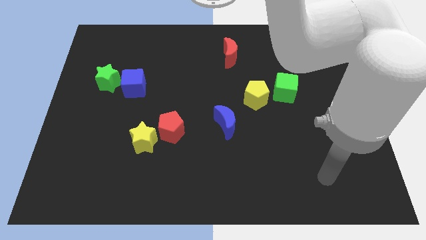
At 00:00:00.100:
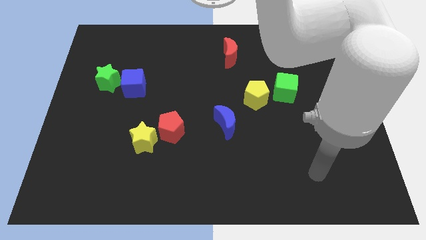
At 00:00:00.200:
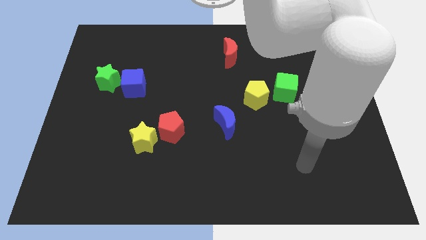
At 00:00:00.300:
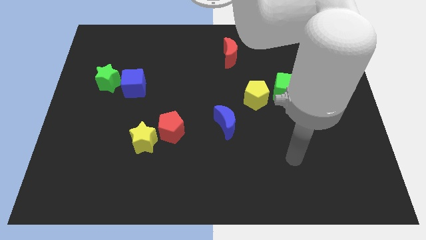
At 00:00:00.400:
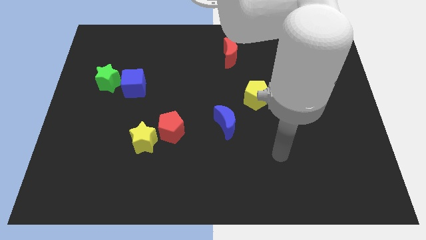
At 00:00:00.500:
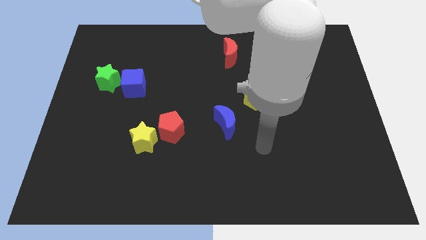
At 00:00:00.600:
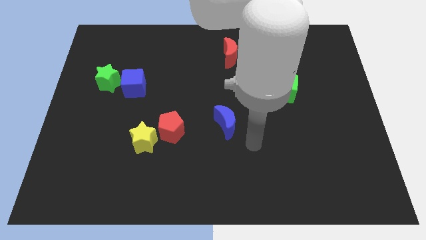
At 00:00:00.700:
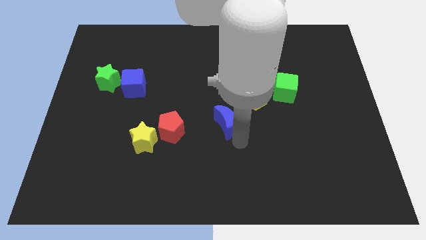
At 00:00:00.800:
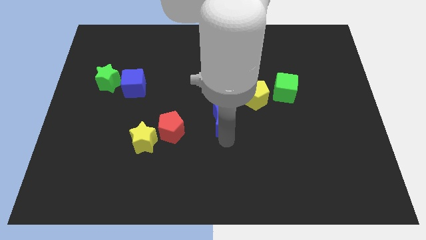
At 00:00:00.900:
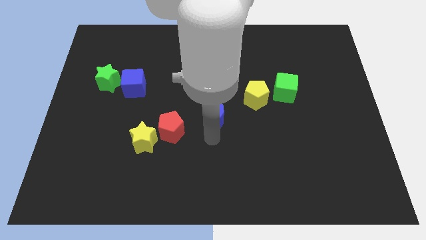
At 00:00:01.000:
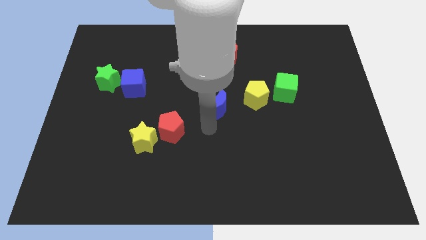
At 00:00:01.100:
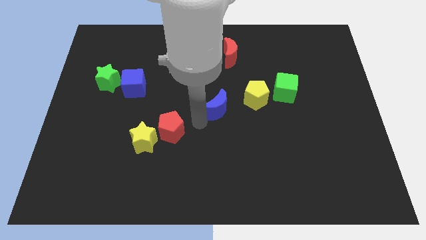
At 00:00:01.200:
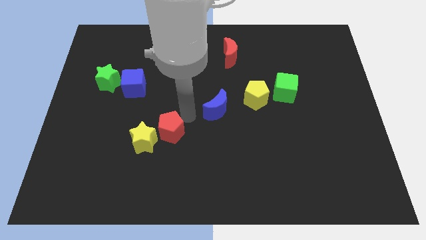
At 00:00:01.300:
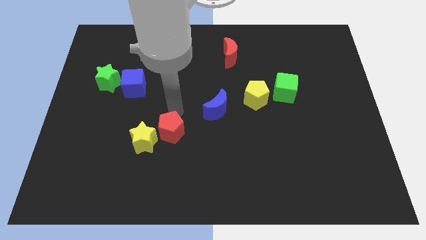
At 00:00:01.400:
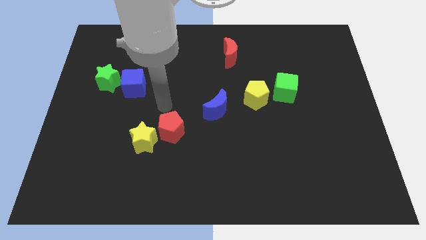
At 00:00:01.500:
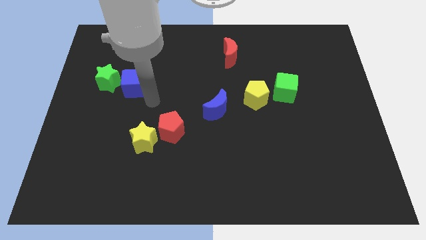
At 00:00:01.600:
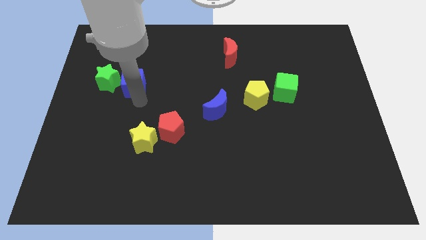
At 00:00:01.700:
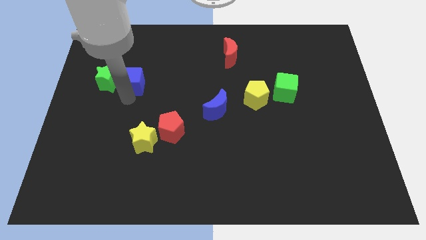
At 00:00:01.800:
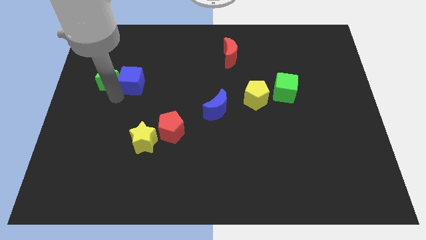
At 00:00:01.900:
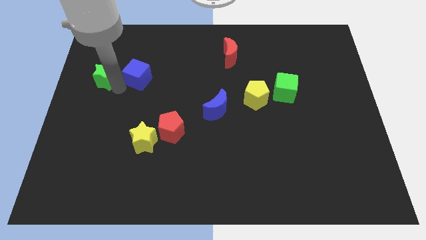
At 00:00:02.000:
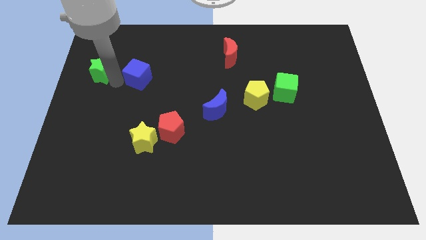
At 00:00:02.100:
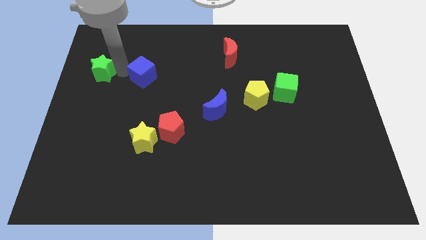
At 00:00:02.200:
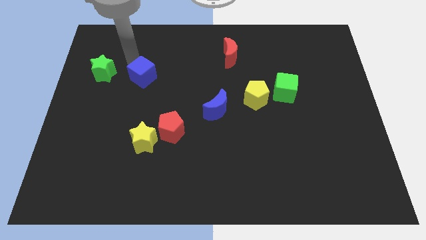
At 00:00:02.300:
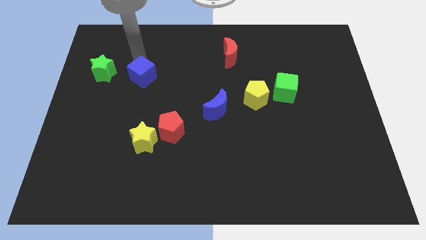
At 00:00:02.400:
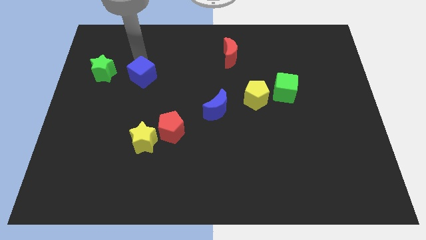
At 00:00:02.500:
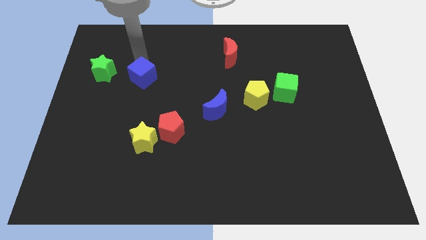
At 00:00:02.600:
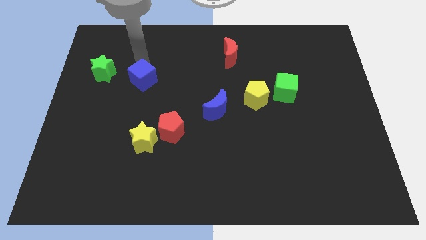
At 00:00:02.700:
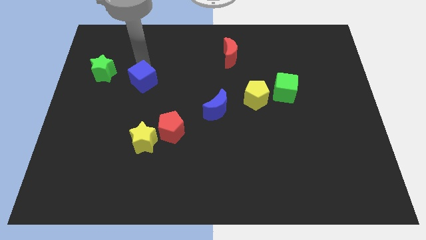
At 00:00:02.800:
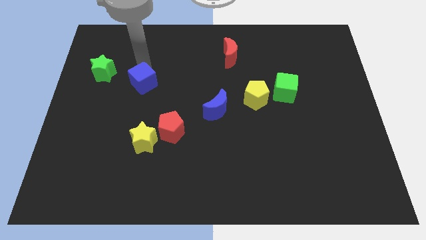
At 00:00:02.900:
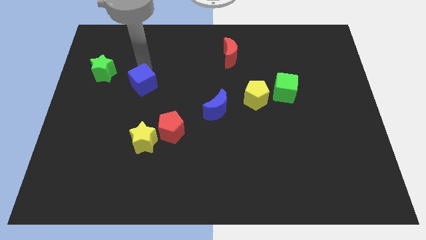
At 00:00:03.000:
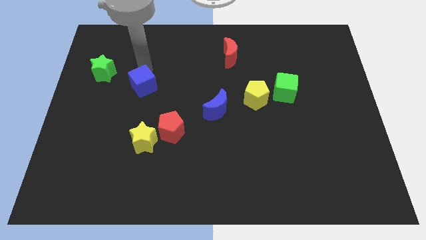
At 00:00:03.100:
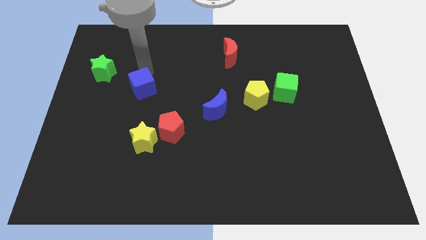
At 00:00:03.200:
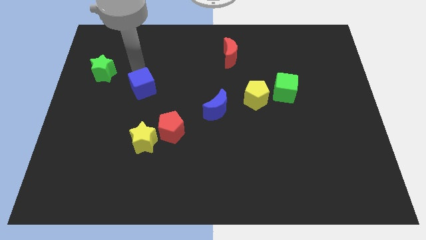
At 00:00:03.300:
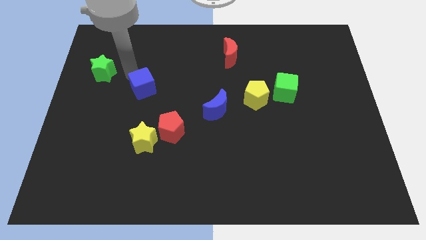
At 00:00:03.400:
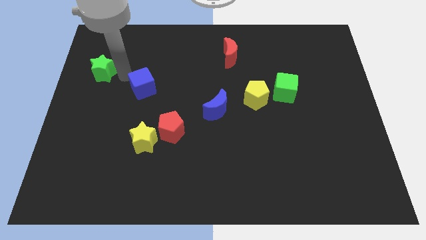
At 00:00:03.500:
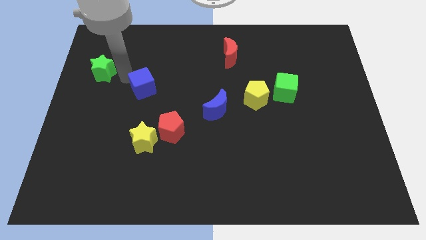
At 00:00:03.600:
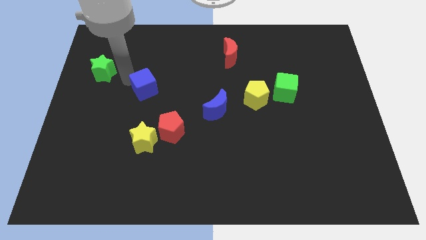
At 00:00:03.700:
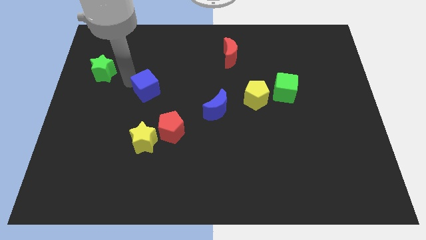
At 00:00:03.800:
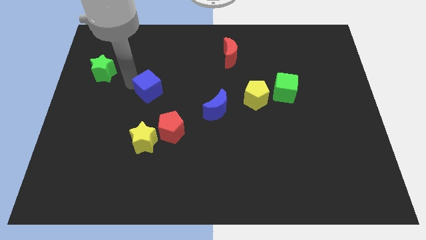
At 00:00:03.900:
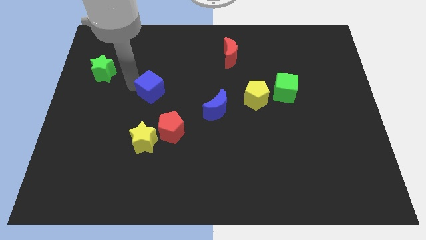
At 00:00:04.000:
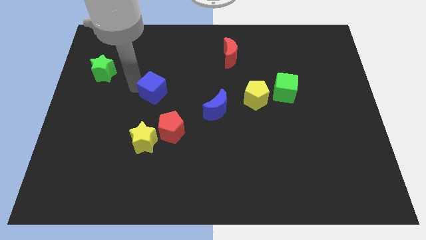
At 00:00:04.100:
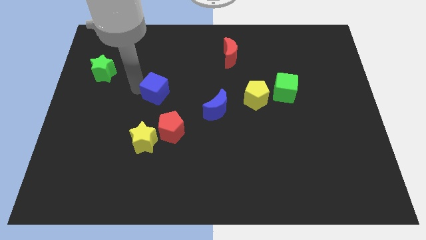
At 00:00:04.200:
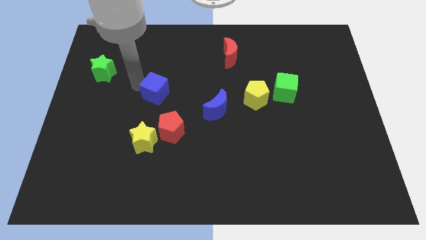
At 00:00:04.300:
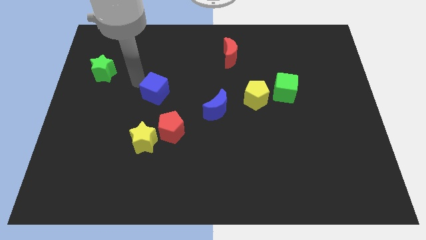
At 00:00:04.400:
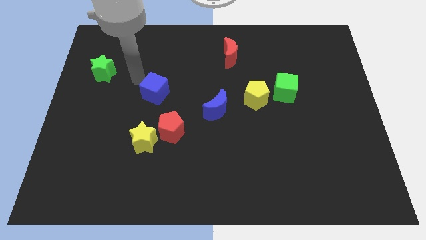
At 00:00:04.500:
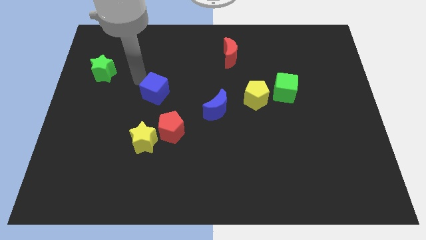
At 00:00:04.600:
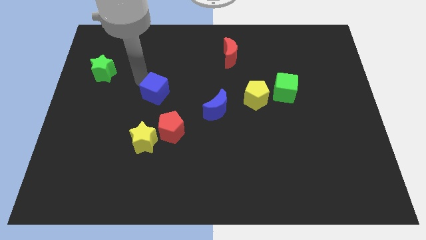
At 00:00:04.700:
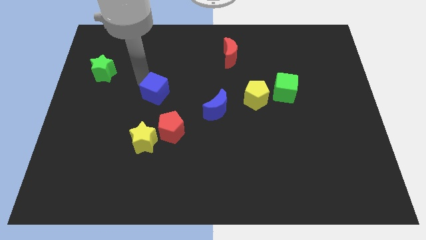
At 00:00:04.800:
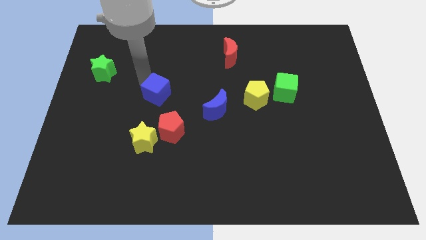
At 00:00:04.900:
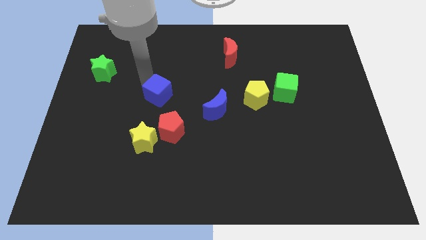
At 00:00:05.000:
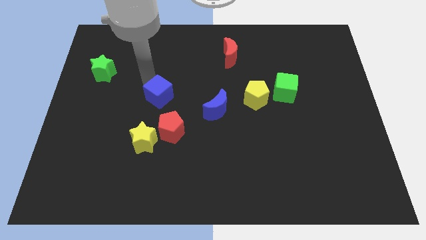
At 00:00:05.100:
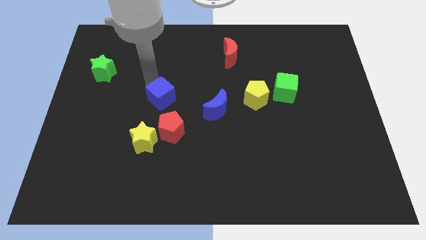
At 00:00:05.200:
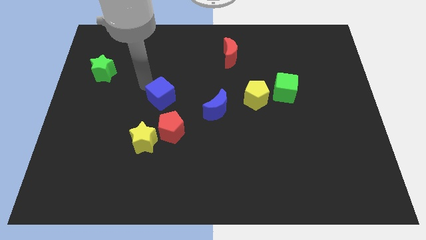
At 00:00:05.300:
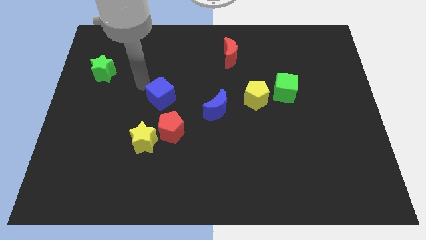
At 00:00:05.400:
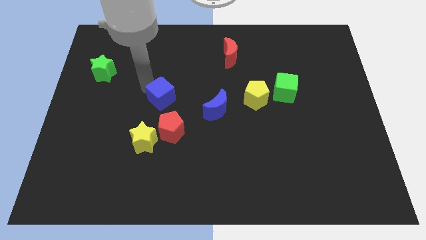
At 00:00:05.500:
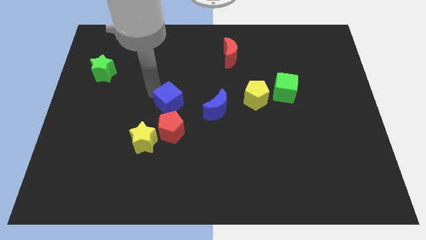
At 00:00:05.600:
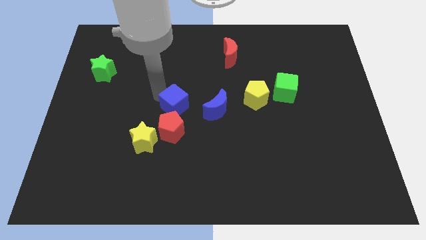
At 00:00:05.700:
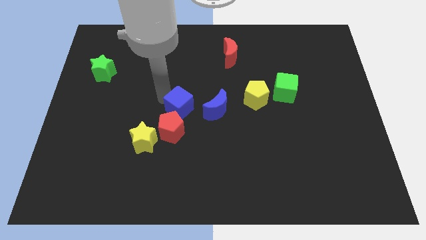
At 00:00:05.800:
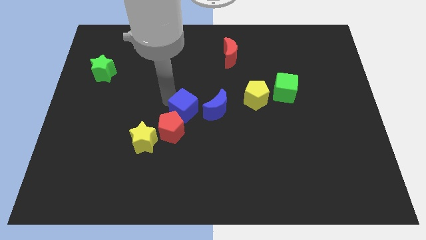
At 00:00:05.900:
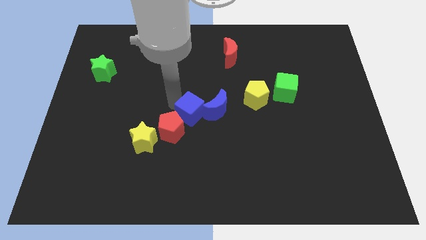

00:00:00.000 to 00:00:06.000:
put the blue cube towards the blue moon
